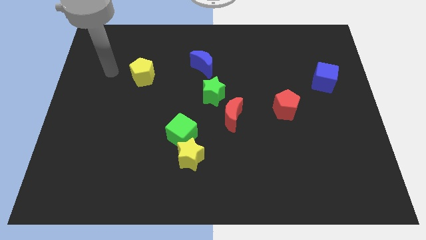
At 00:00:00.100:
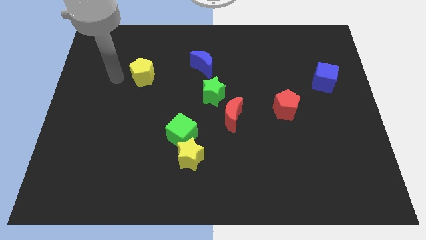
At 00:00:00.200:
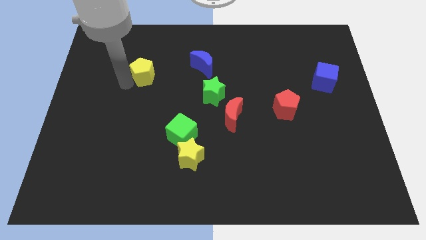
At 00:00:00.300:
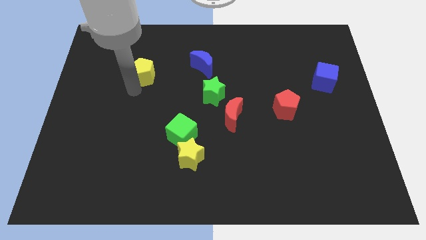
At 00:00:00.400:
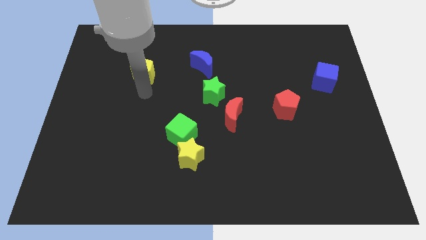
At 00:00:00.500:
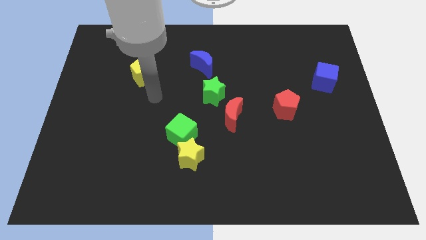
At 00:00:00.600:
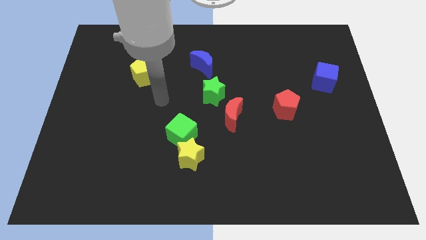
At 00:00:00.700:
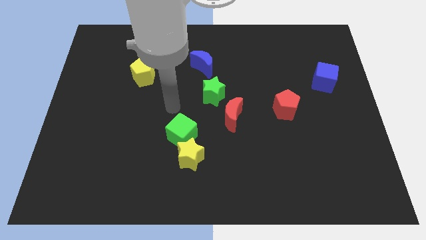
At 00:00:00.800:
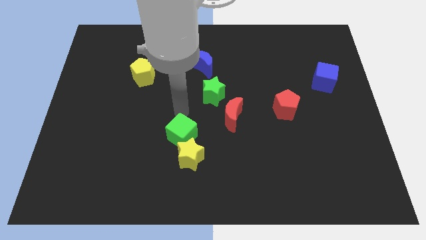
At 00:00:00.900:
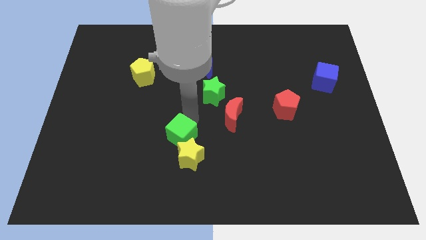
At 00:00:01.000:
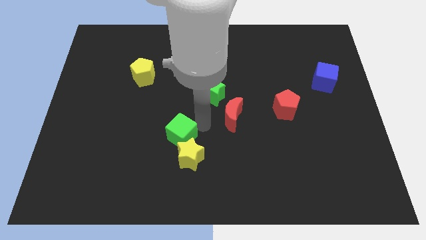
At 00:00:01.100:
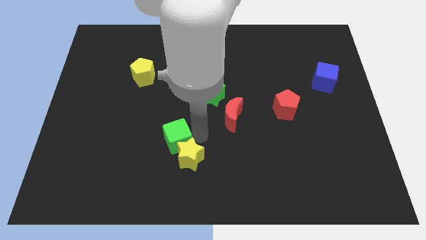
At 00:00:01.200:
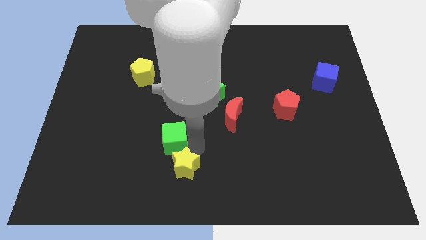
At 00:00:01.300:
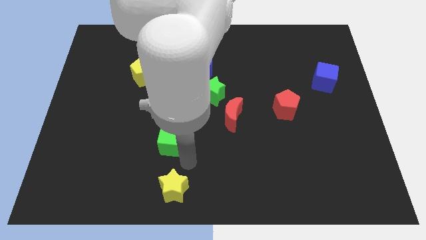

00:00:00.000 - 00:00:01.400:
separate the green cube from the yellow star

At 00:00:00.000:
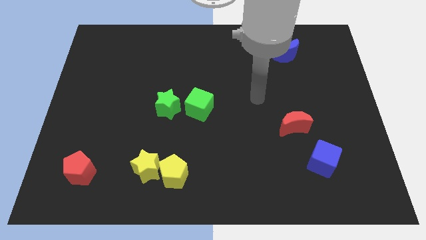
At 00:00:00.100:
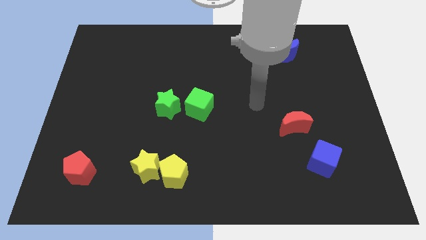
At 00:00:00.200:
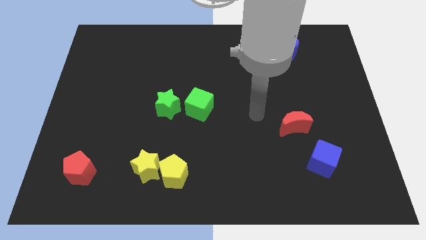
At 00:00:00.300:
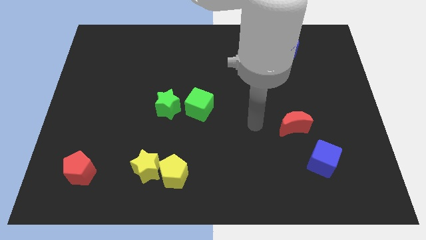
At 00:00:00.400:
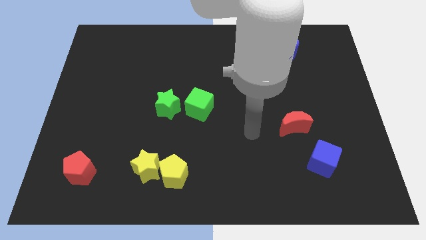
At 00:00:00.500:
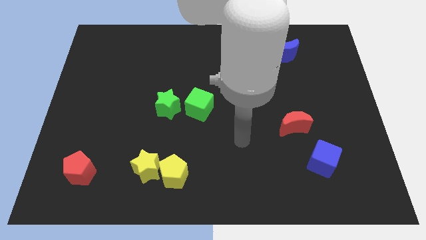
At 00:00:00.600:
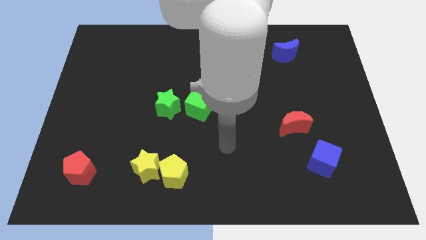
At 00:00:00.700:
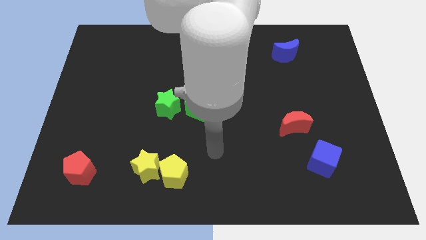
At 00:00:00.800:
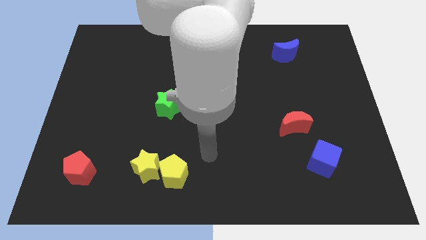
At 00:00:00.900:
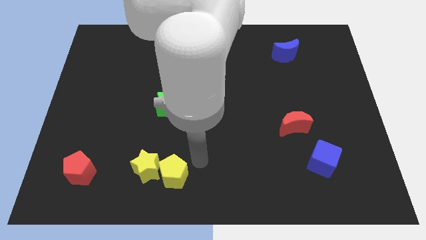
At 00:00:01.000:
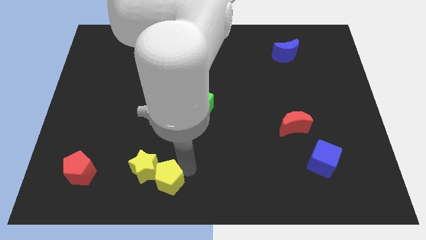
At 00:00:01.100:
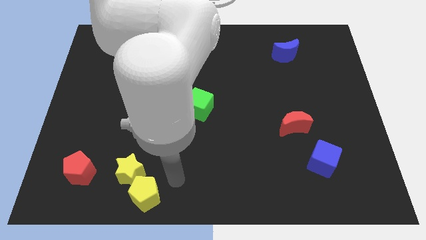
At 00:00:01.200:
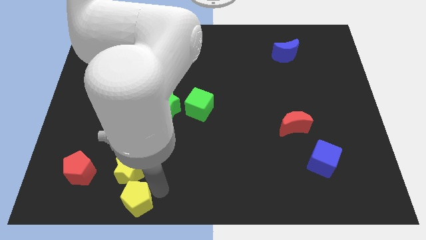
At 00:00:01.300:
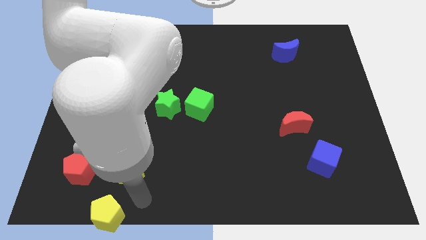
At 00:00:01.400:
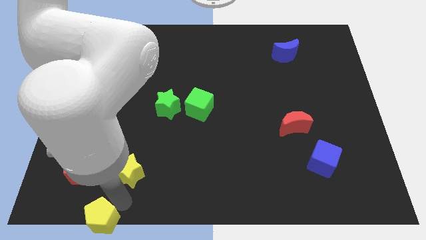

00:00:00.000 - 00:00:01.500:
separate the yellow star from the yellow pentagon

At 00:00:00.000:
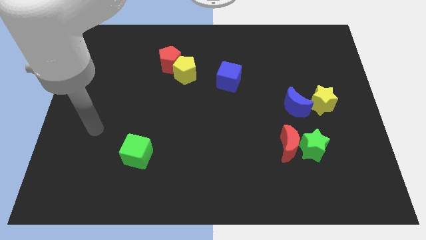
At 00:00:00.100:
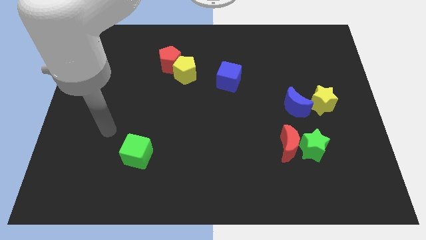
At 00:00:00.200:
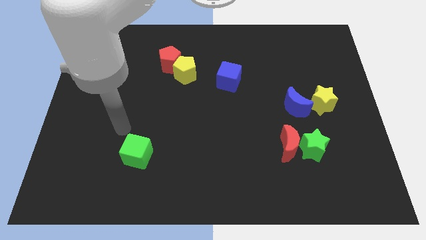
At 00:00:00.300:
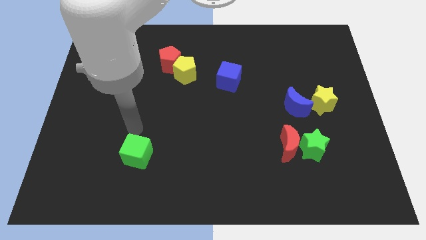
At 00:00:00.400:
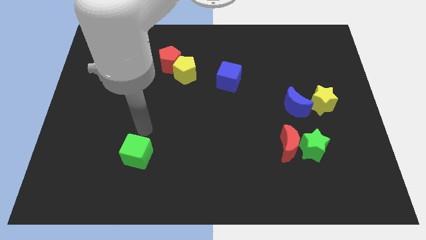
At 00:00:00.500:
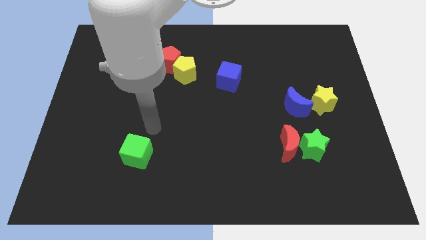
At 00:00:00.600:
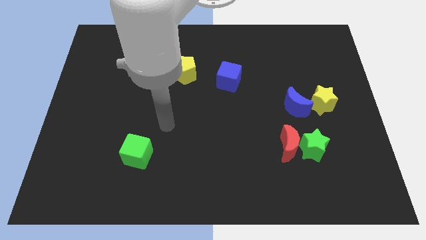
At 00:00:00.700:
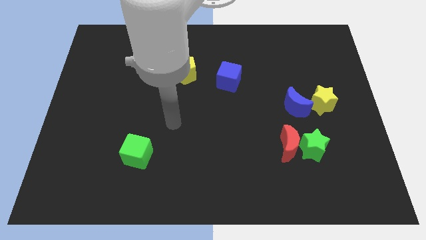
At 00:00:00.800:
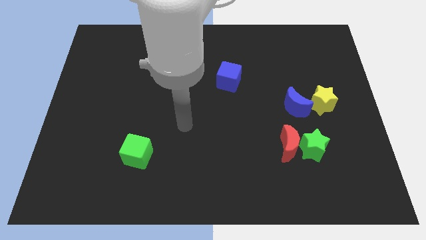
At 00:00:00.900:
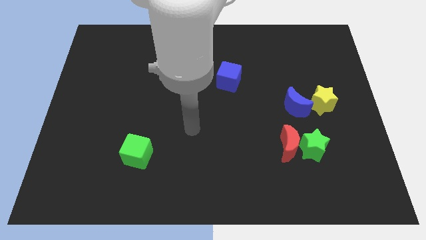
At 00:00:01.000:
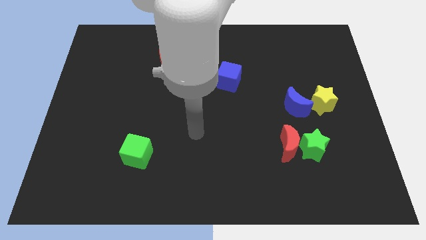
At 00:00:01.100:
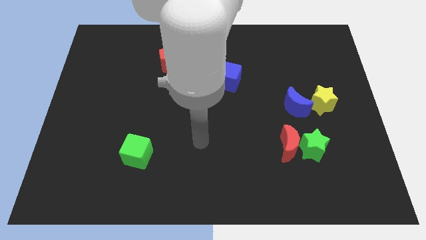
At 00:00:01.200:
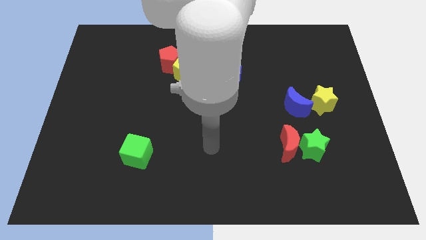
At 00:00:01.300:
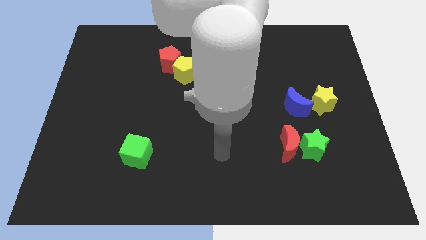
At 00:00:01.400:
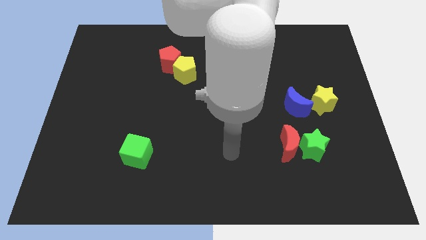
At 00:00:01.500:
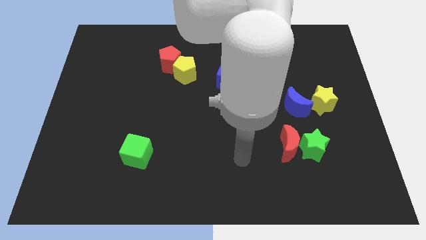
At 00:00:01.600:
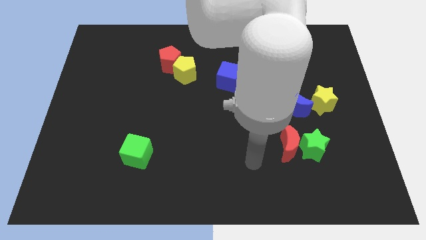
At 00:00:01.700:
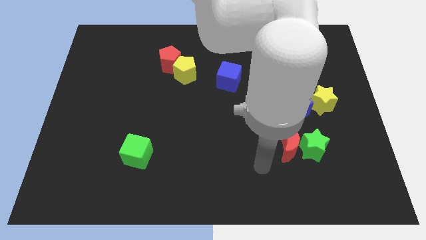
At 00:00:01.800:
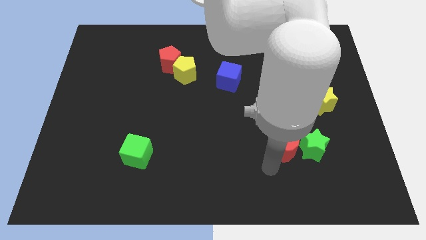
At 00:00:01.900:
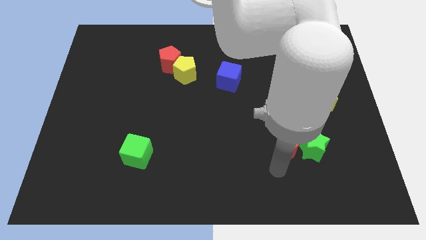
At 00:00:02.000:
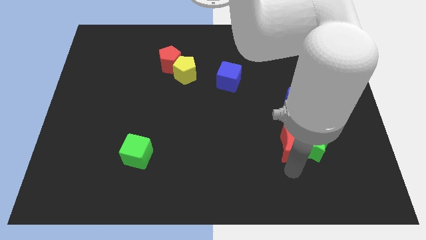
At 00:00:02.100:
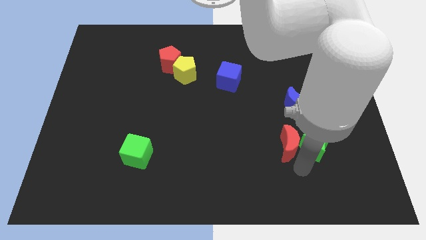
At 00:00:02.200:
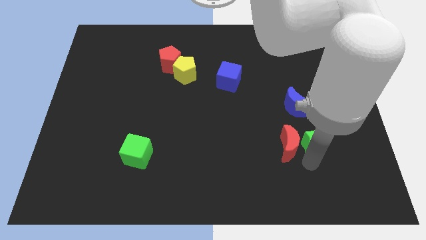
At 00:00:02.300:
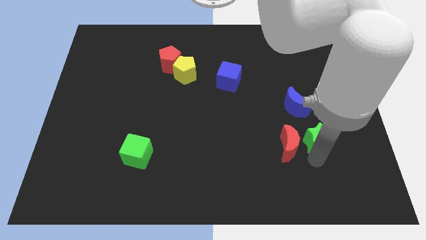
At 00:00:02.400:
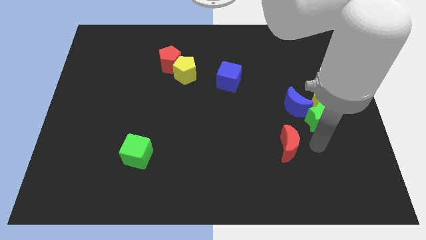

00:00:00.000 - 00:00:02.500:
move the red moon away from the green star

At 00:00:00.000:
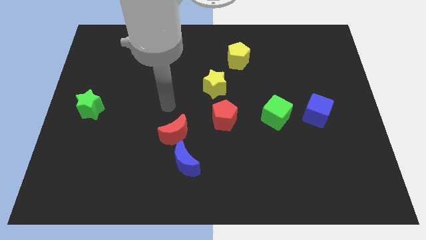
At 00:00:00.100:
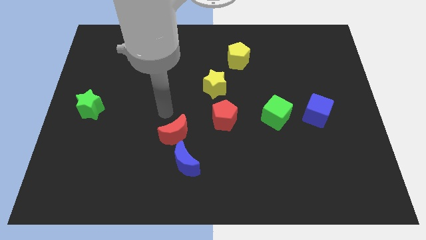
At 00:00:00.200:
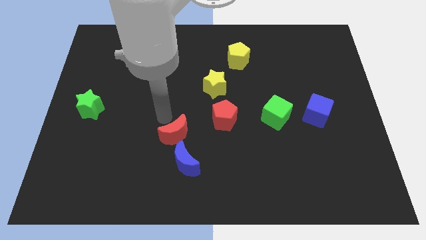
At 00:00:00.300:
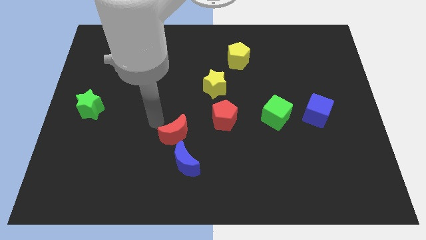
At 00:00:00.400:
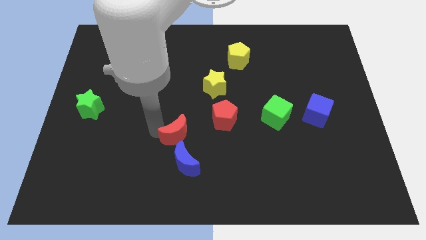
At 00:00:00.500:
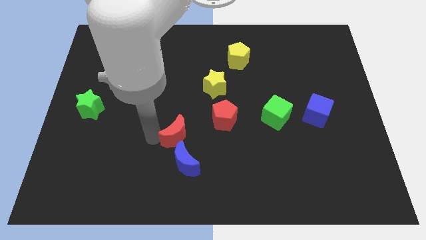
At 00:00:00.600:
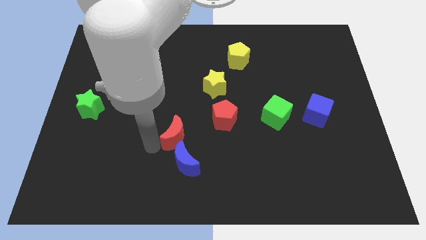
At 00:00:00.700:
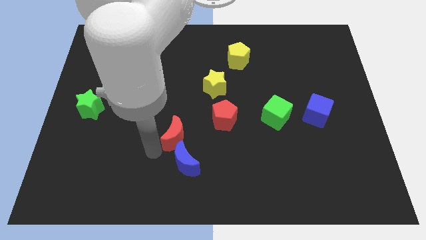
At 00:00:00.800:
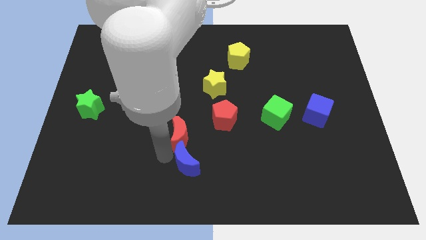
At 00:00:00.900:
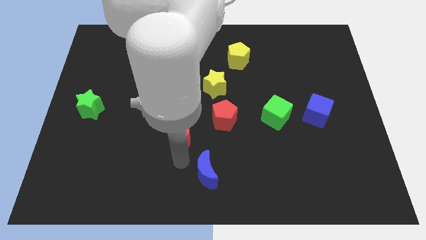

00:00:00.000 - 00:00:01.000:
move the red moon away from the blue moon

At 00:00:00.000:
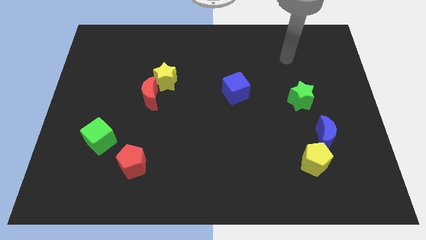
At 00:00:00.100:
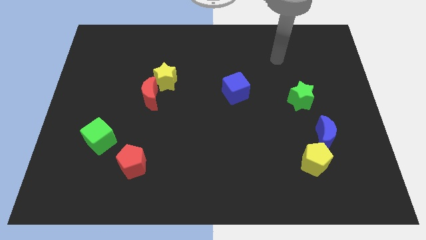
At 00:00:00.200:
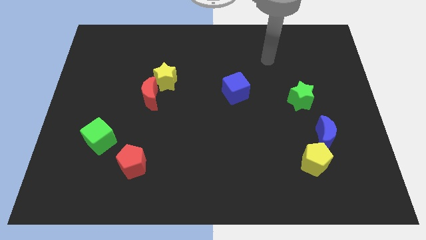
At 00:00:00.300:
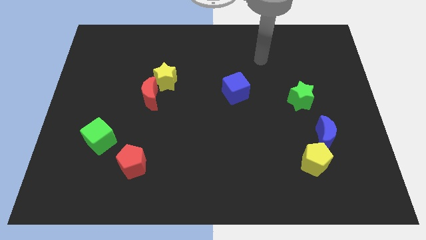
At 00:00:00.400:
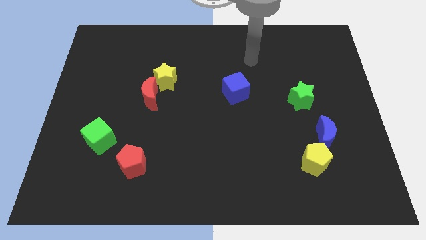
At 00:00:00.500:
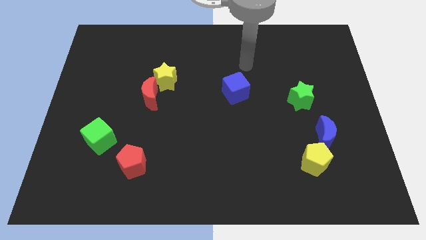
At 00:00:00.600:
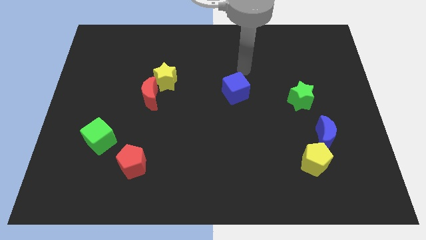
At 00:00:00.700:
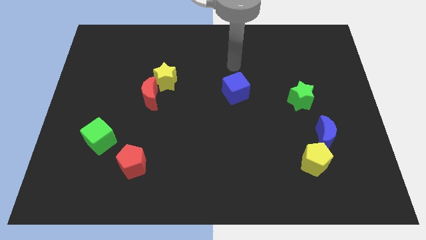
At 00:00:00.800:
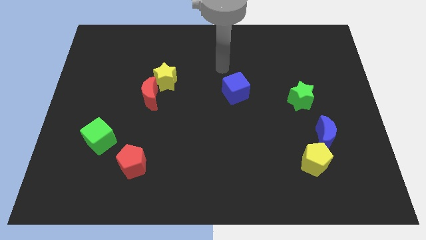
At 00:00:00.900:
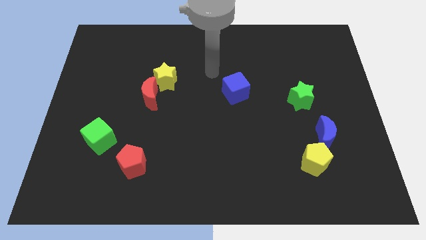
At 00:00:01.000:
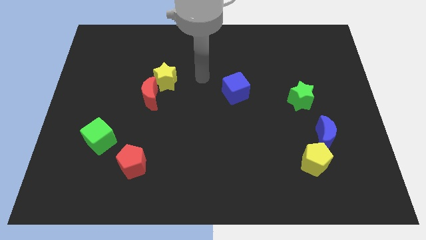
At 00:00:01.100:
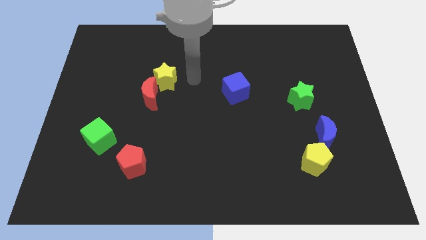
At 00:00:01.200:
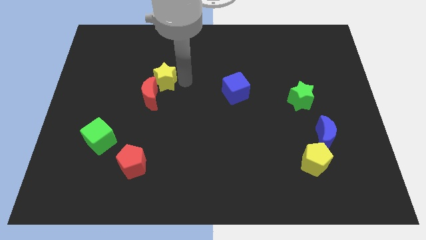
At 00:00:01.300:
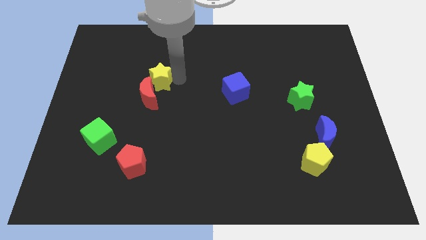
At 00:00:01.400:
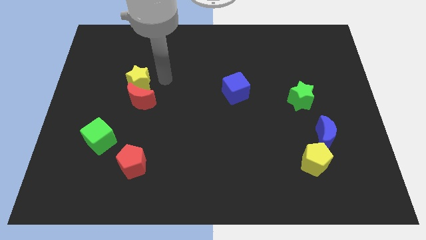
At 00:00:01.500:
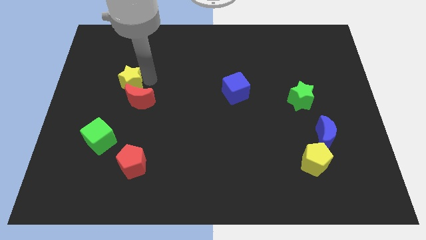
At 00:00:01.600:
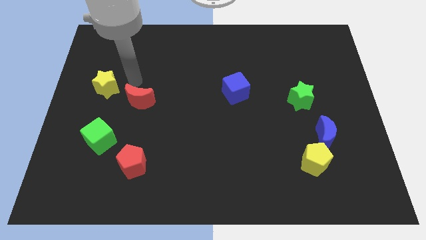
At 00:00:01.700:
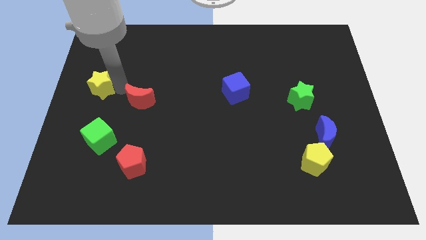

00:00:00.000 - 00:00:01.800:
pull the red moon apart from the yellow star

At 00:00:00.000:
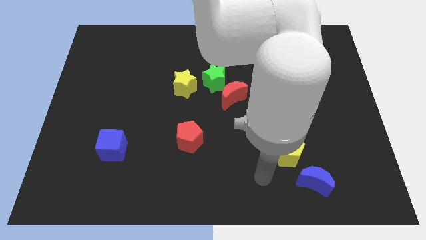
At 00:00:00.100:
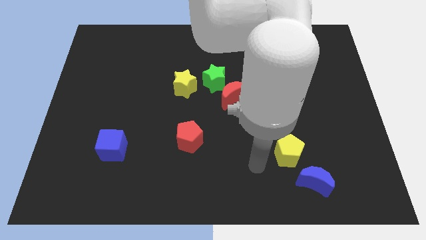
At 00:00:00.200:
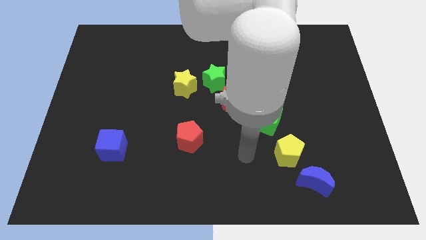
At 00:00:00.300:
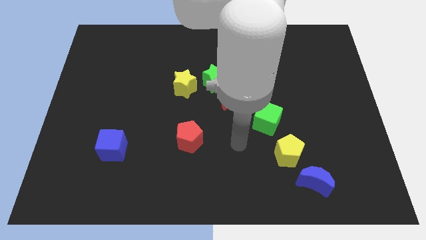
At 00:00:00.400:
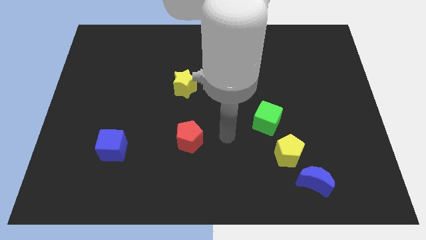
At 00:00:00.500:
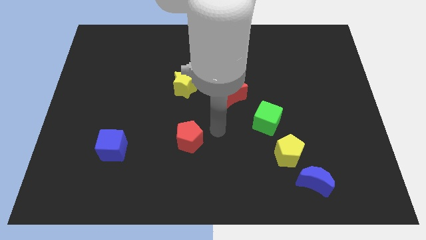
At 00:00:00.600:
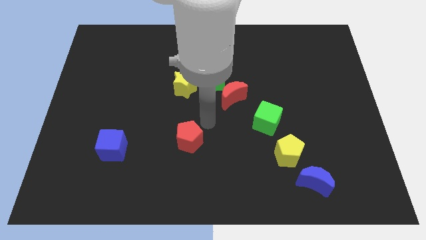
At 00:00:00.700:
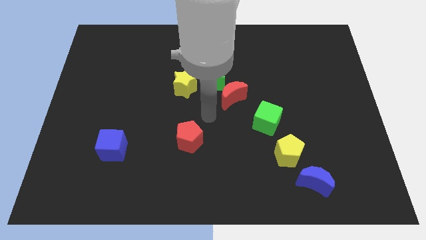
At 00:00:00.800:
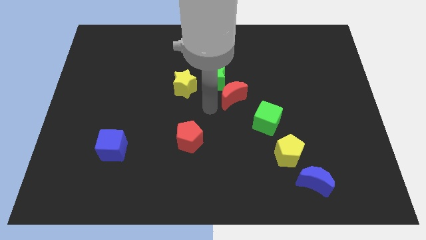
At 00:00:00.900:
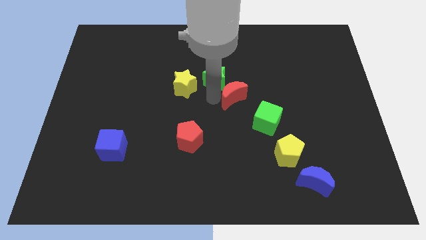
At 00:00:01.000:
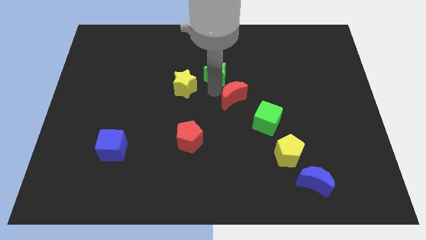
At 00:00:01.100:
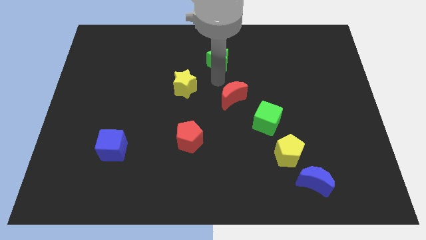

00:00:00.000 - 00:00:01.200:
pull the red moon apart from the green star
